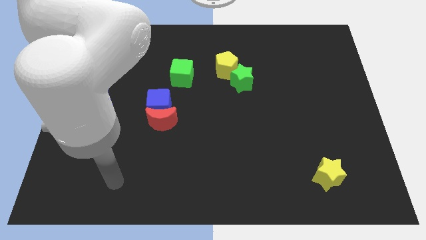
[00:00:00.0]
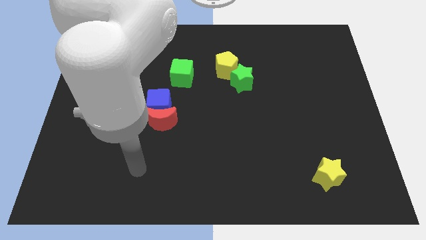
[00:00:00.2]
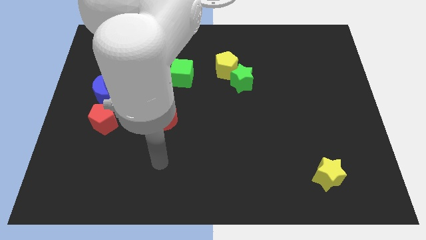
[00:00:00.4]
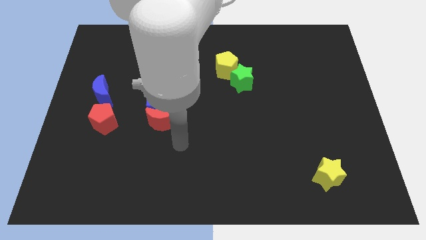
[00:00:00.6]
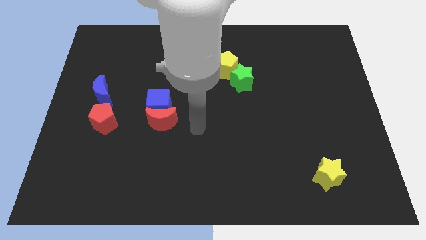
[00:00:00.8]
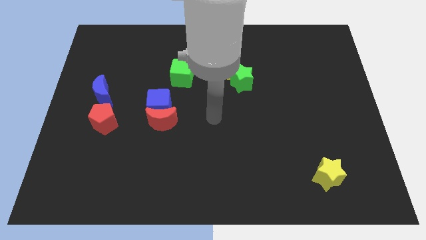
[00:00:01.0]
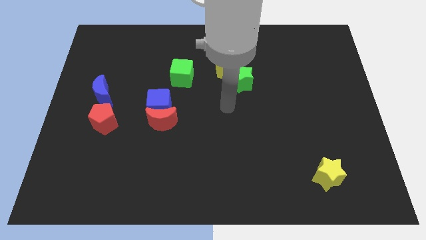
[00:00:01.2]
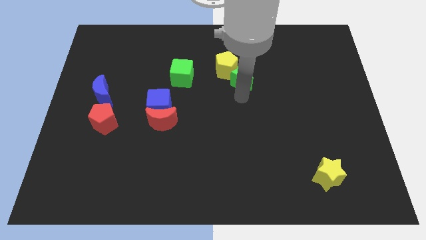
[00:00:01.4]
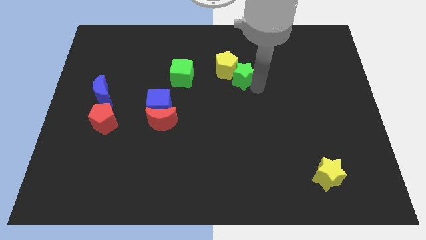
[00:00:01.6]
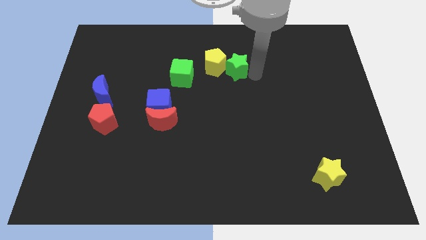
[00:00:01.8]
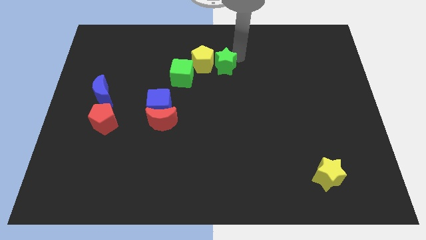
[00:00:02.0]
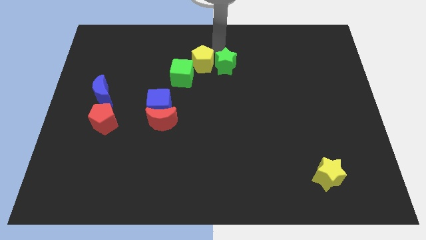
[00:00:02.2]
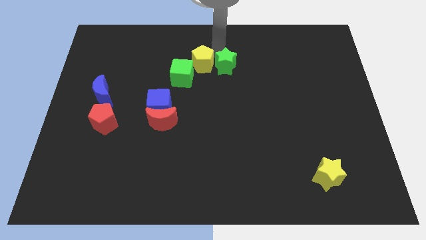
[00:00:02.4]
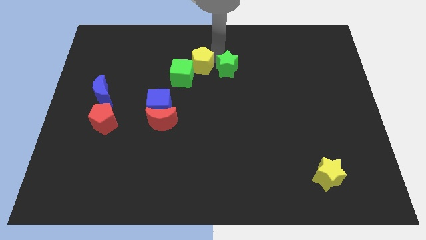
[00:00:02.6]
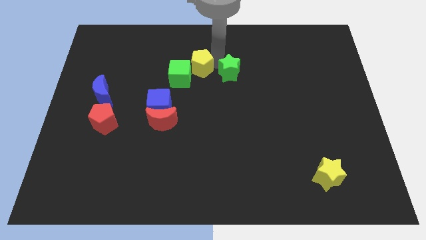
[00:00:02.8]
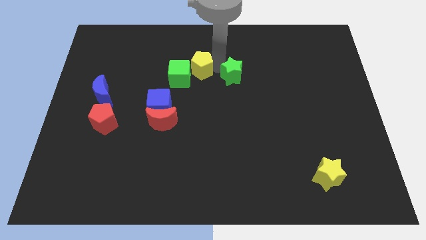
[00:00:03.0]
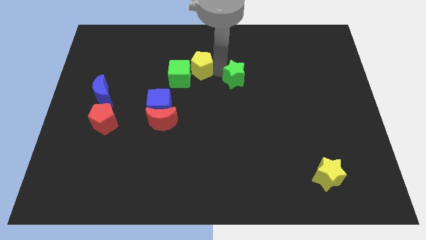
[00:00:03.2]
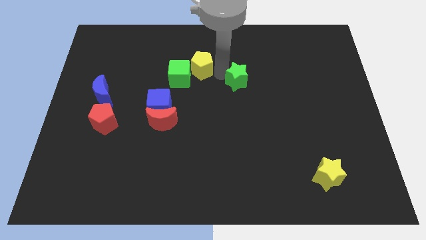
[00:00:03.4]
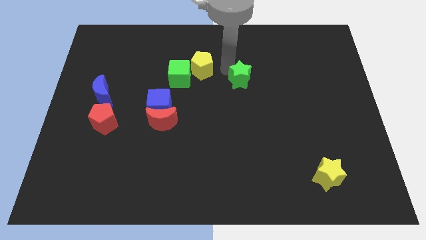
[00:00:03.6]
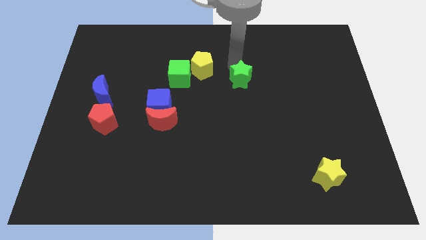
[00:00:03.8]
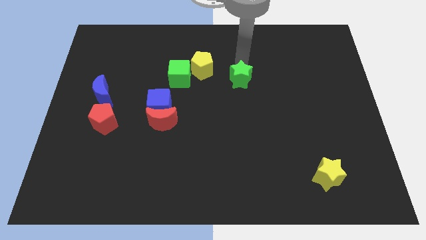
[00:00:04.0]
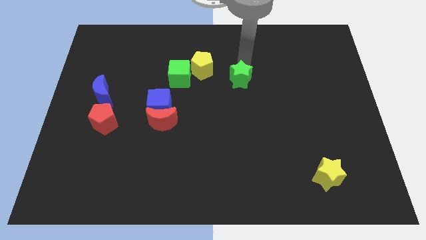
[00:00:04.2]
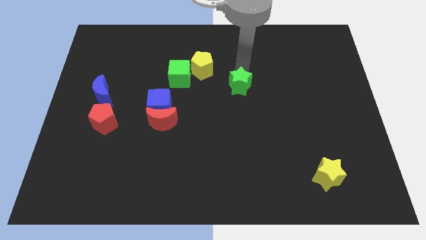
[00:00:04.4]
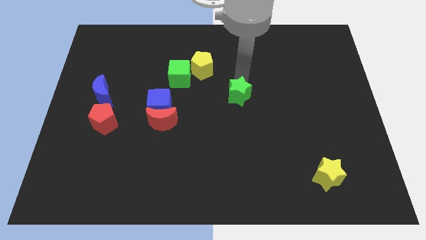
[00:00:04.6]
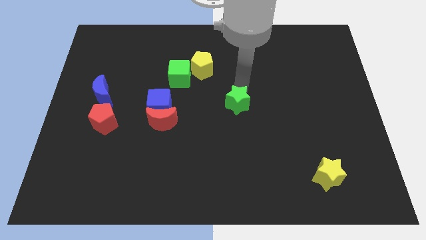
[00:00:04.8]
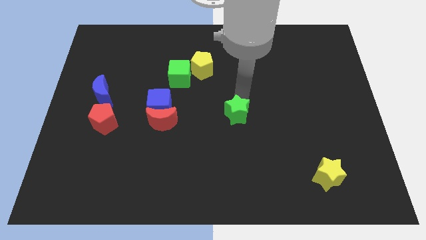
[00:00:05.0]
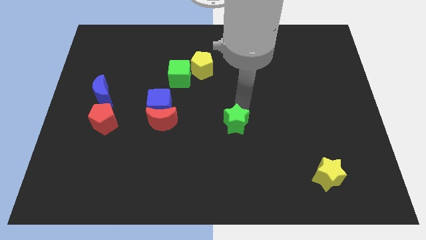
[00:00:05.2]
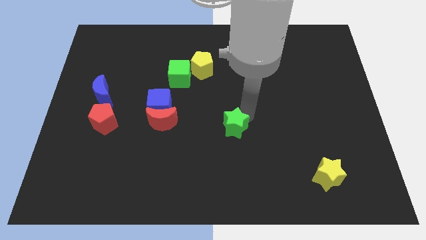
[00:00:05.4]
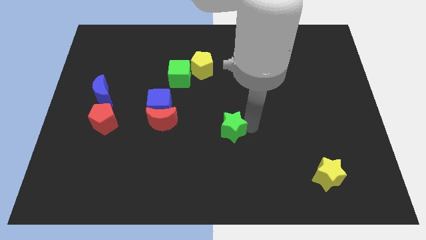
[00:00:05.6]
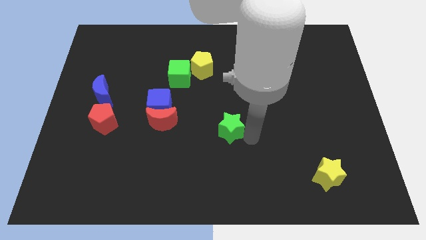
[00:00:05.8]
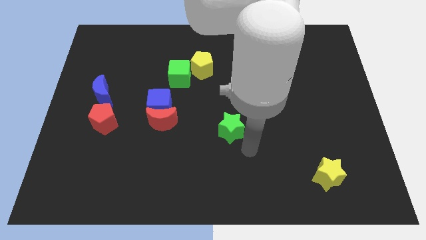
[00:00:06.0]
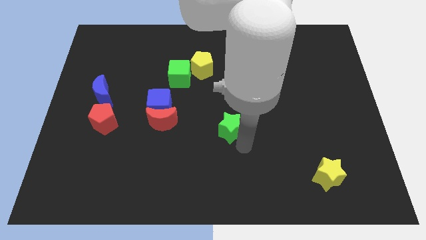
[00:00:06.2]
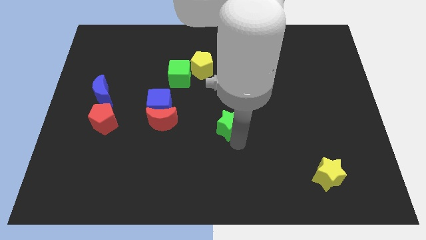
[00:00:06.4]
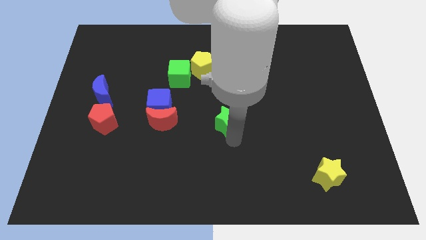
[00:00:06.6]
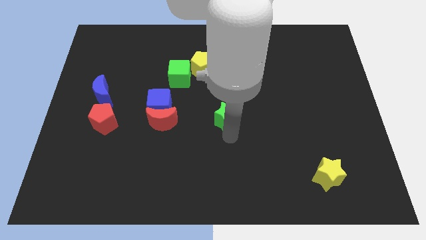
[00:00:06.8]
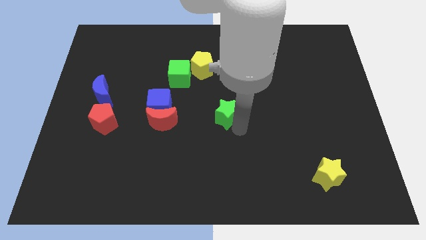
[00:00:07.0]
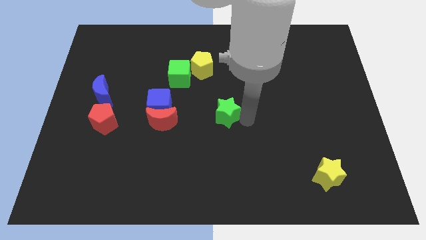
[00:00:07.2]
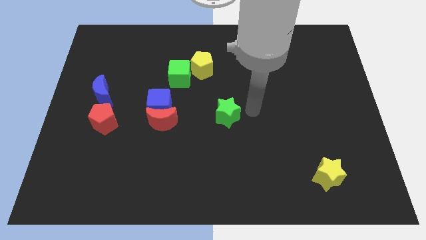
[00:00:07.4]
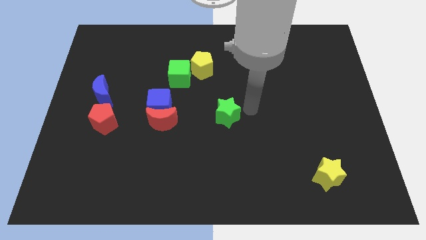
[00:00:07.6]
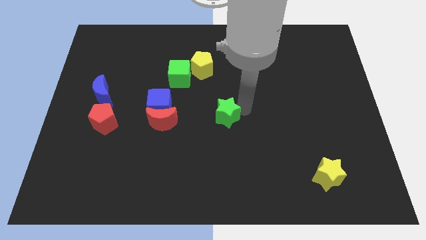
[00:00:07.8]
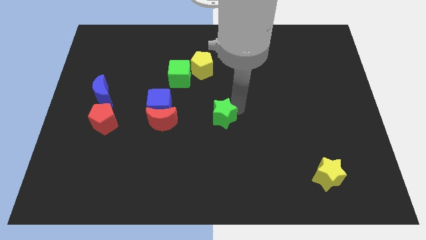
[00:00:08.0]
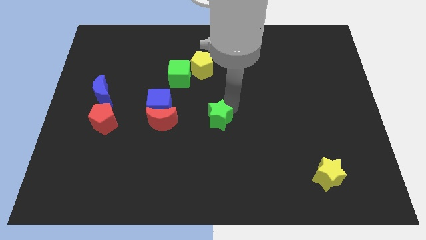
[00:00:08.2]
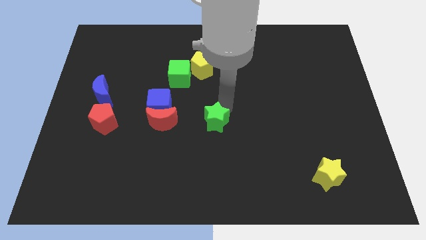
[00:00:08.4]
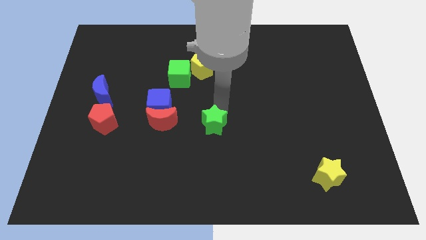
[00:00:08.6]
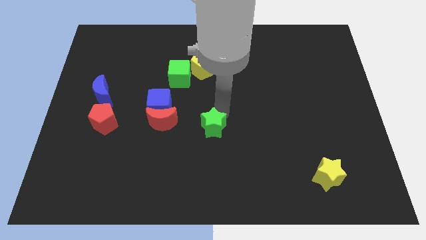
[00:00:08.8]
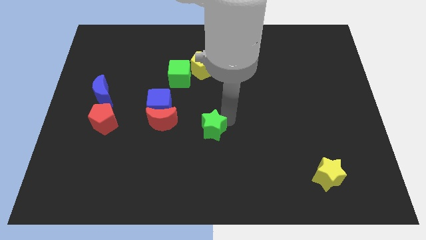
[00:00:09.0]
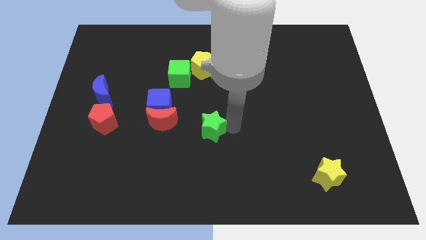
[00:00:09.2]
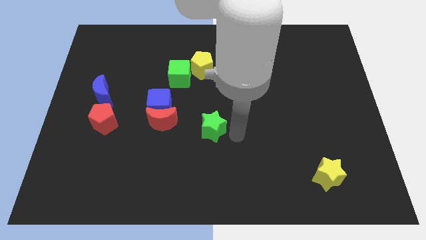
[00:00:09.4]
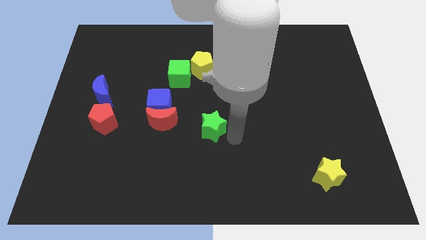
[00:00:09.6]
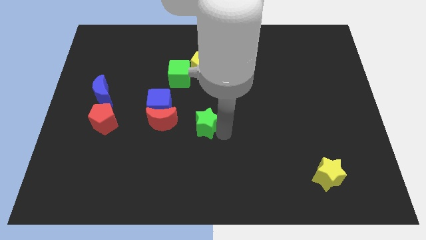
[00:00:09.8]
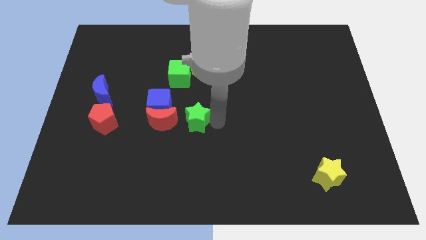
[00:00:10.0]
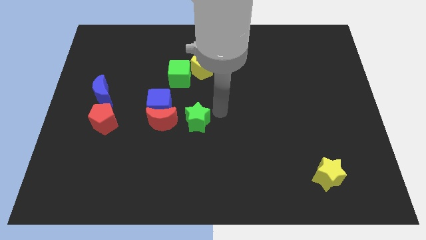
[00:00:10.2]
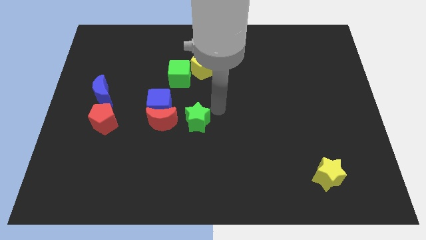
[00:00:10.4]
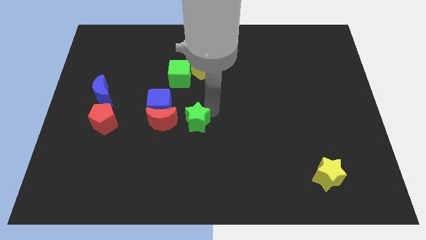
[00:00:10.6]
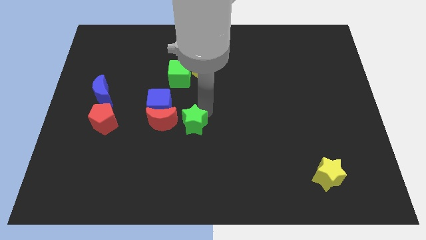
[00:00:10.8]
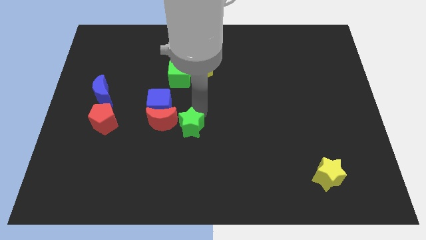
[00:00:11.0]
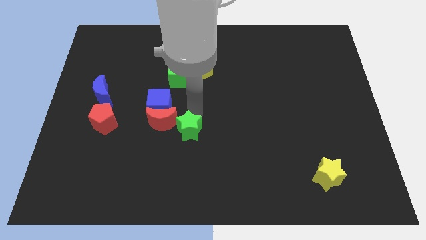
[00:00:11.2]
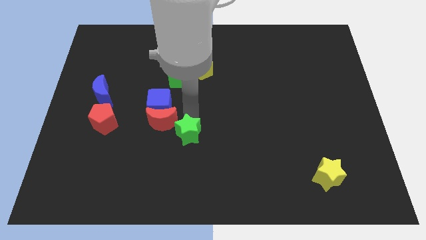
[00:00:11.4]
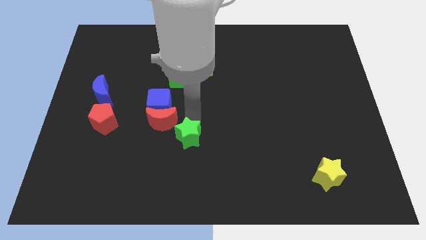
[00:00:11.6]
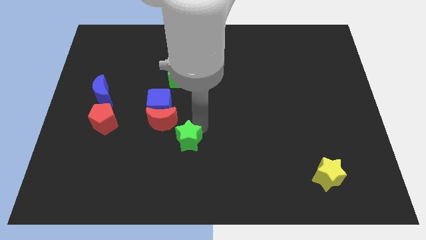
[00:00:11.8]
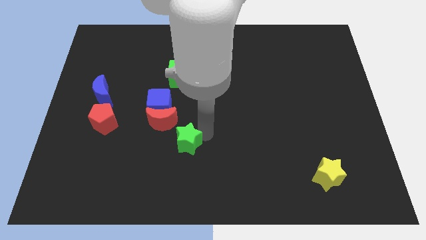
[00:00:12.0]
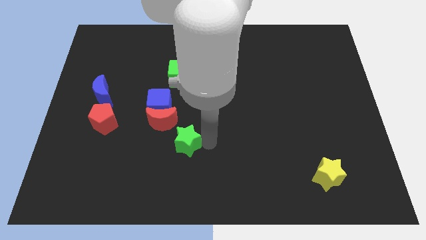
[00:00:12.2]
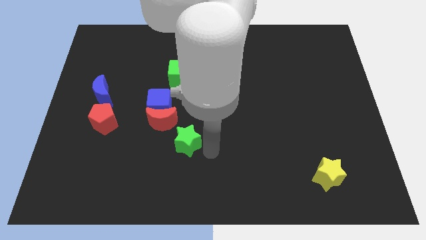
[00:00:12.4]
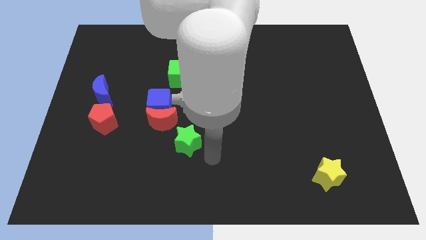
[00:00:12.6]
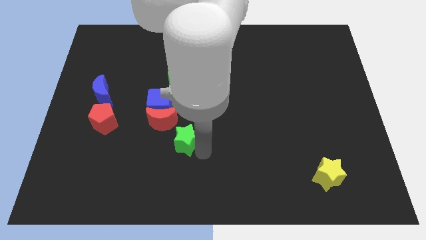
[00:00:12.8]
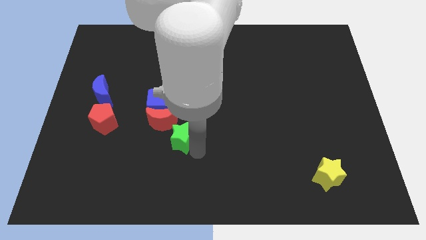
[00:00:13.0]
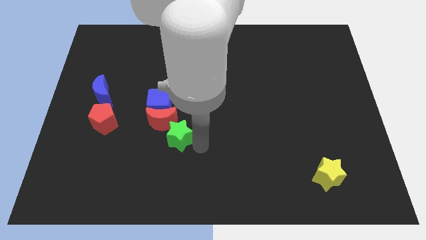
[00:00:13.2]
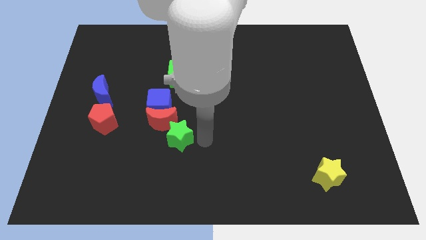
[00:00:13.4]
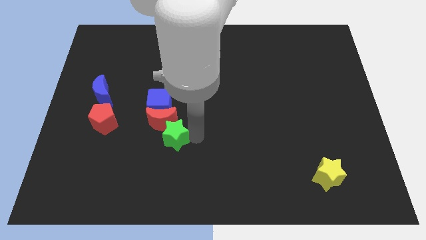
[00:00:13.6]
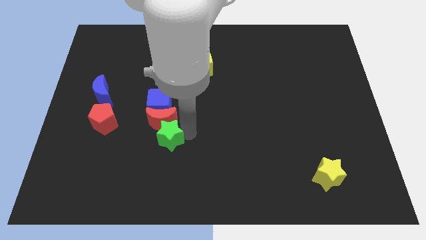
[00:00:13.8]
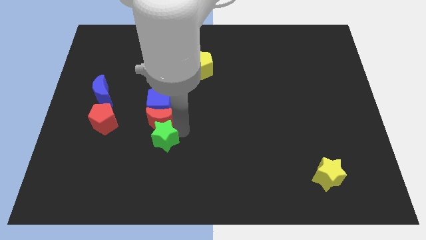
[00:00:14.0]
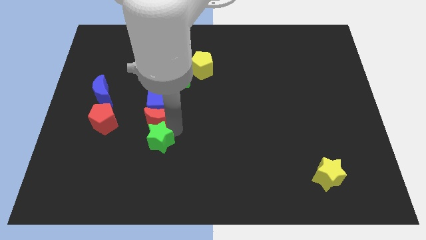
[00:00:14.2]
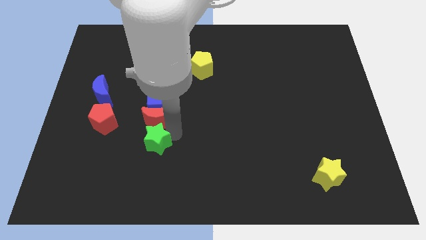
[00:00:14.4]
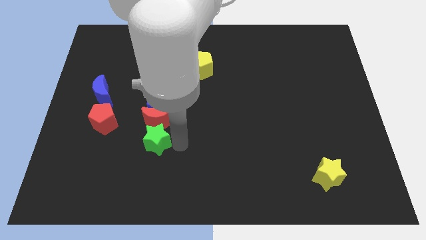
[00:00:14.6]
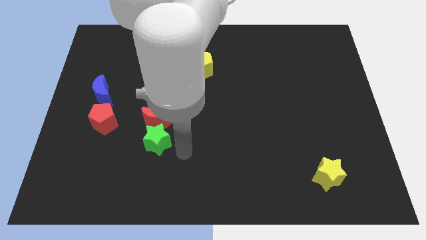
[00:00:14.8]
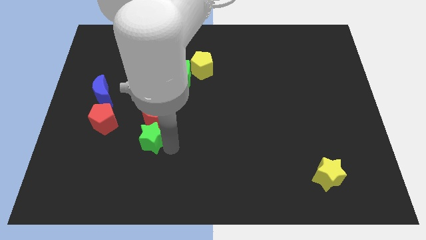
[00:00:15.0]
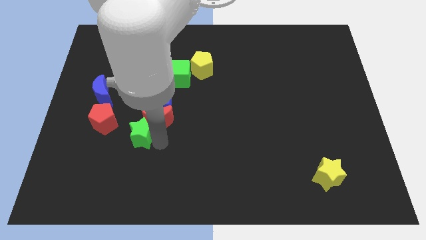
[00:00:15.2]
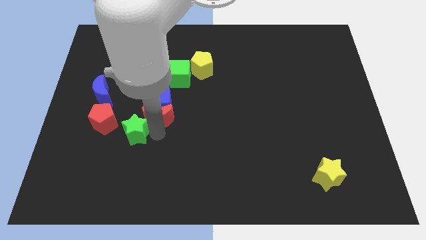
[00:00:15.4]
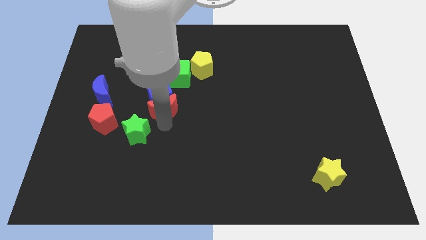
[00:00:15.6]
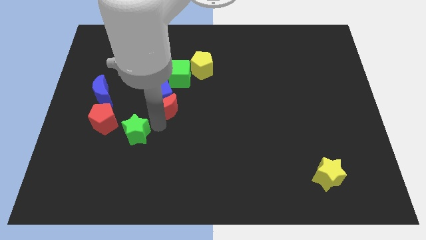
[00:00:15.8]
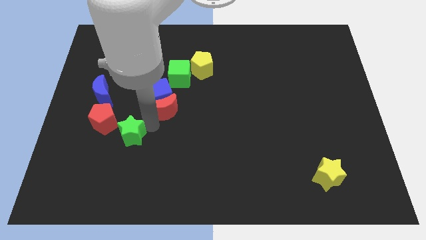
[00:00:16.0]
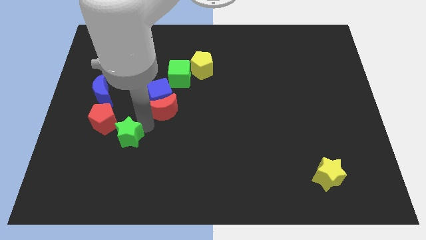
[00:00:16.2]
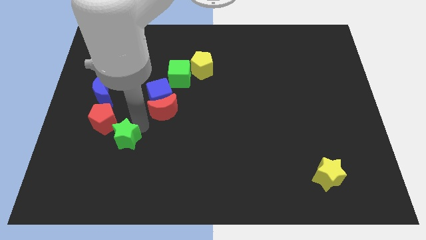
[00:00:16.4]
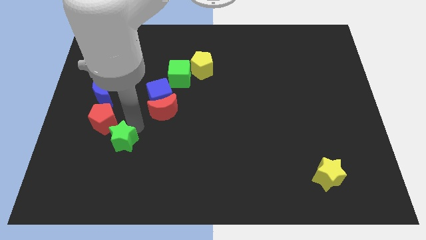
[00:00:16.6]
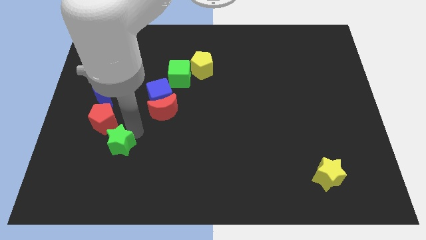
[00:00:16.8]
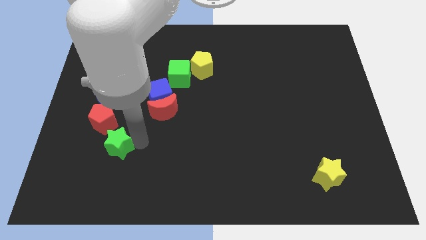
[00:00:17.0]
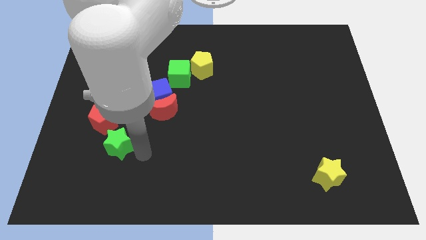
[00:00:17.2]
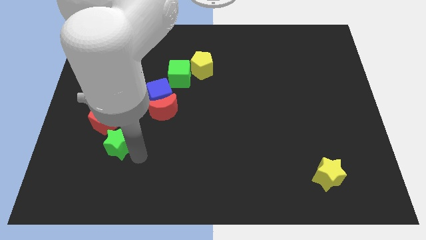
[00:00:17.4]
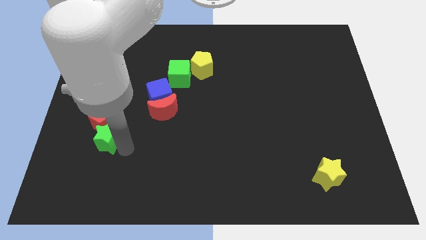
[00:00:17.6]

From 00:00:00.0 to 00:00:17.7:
move the green star to the bottom side of the blue moon
